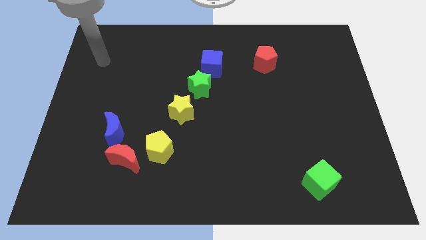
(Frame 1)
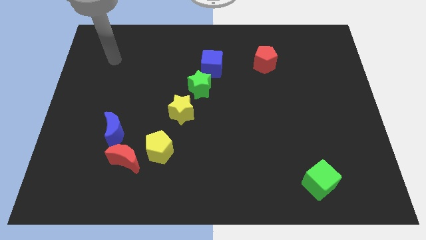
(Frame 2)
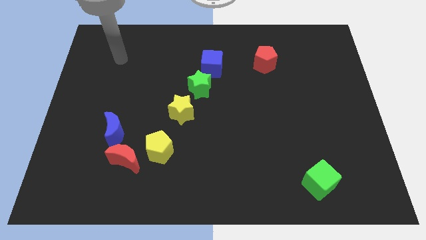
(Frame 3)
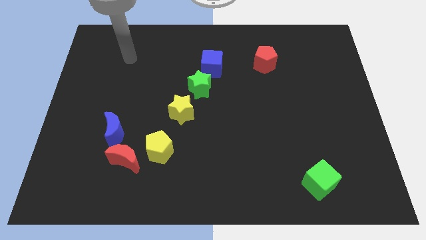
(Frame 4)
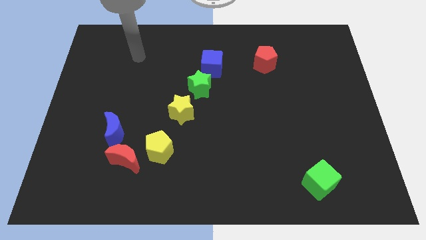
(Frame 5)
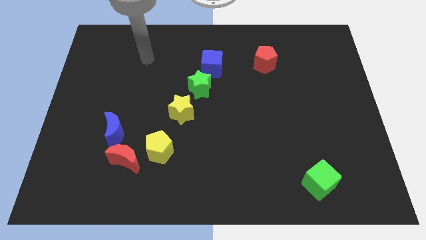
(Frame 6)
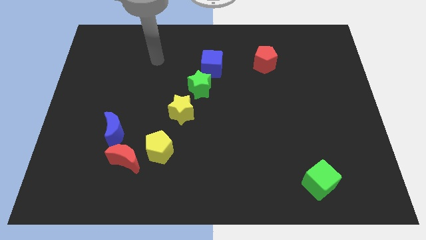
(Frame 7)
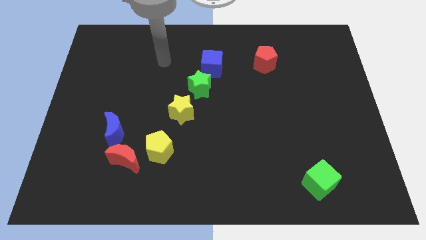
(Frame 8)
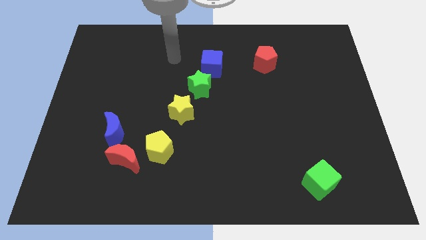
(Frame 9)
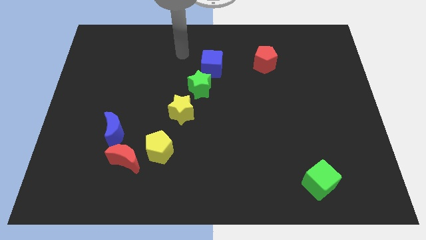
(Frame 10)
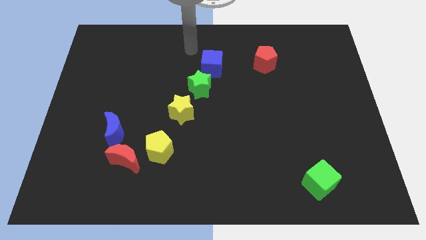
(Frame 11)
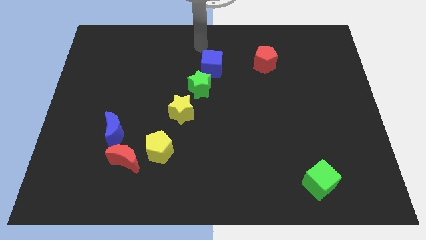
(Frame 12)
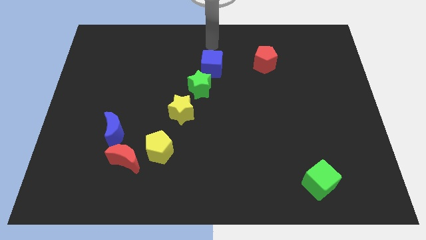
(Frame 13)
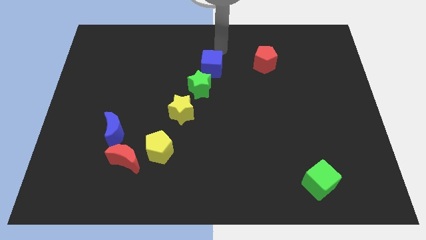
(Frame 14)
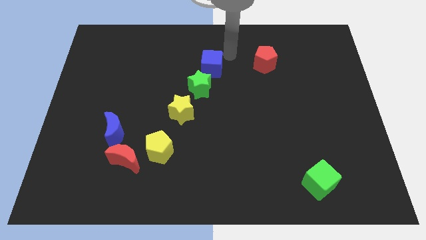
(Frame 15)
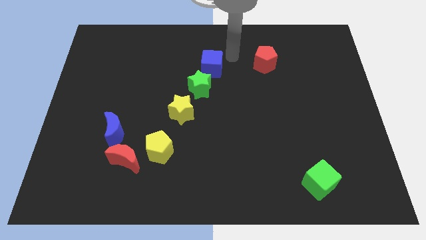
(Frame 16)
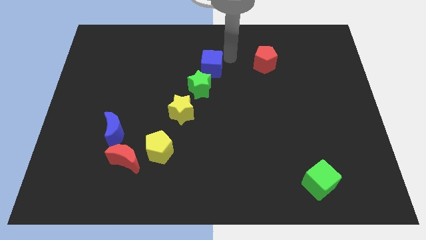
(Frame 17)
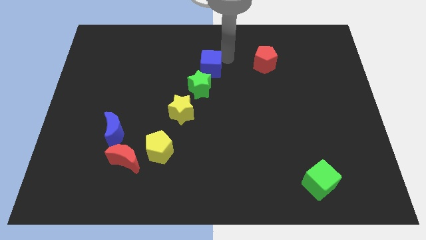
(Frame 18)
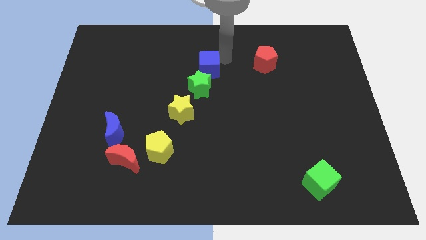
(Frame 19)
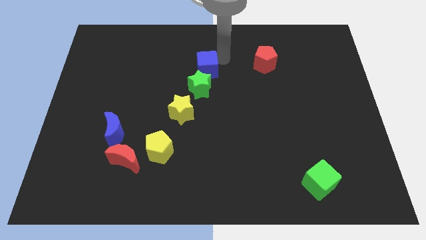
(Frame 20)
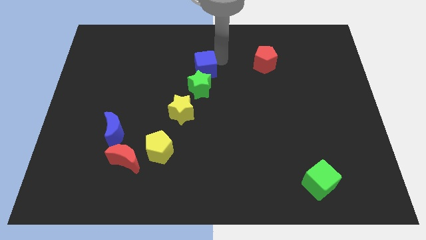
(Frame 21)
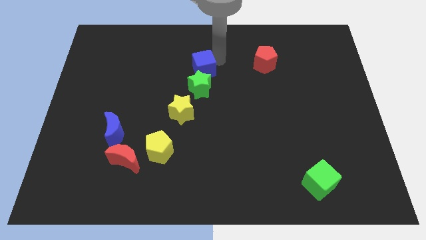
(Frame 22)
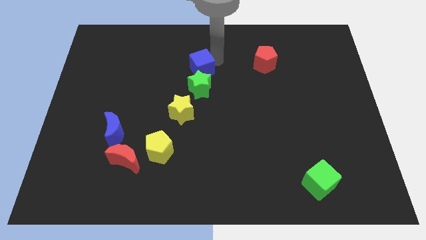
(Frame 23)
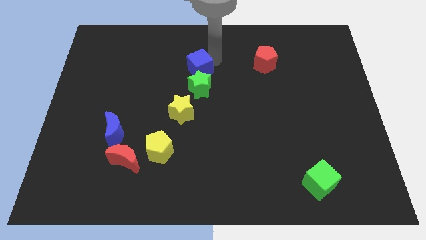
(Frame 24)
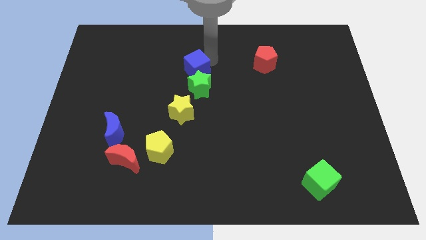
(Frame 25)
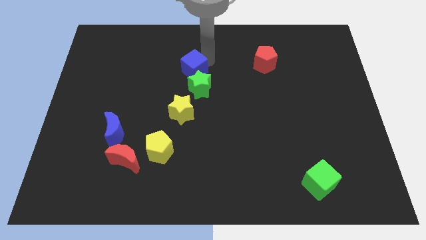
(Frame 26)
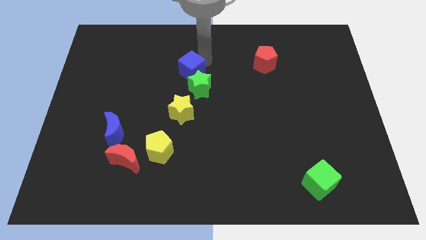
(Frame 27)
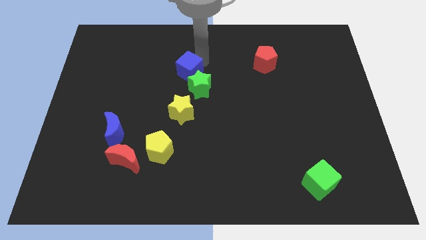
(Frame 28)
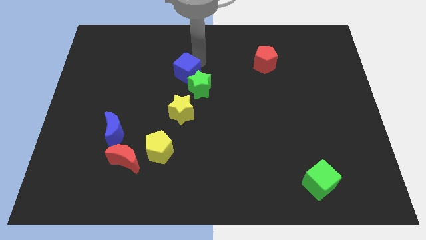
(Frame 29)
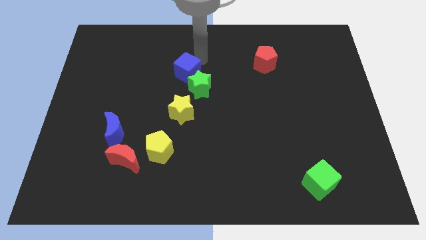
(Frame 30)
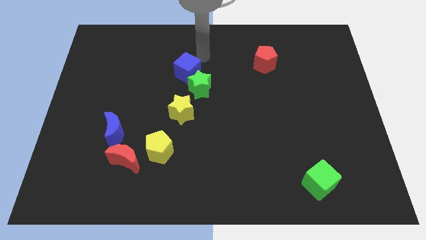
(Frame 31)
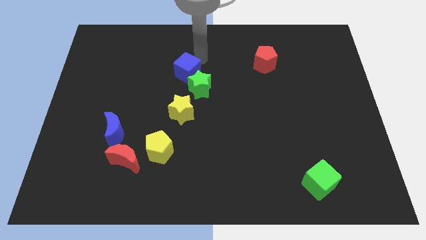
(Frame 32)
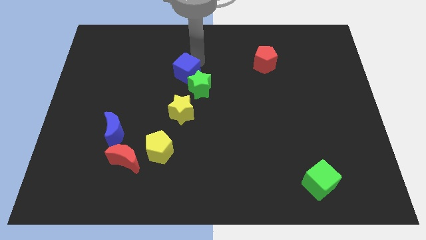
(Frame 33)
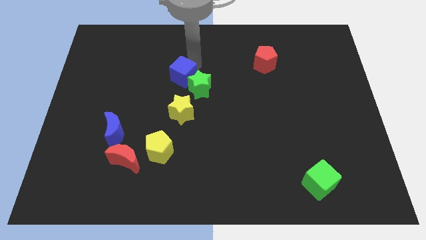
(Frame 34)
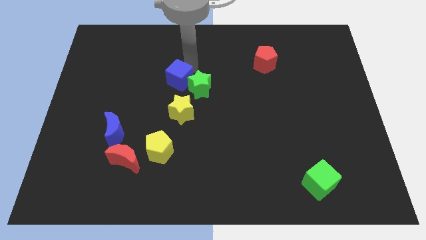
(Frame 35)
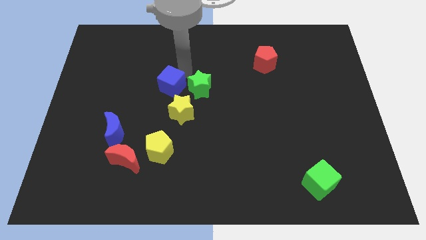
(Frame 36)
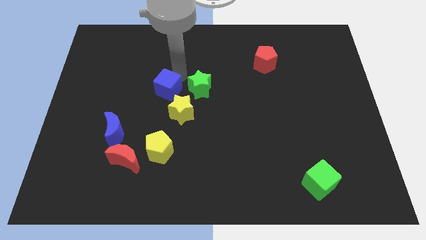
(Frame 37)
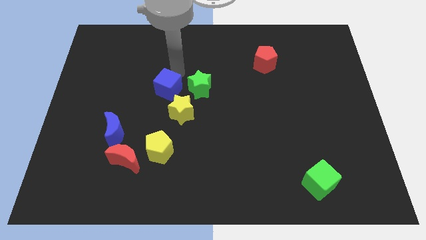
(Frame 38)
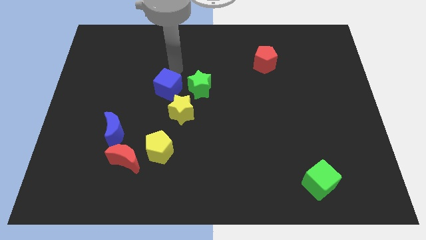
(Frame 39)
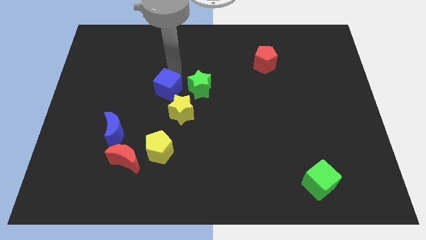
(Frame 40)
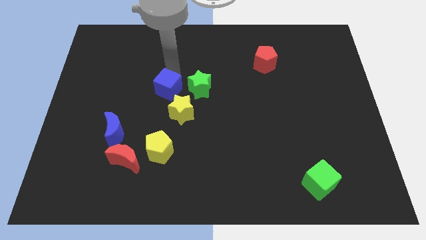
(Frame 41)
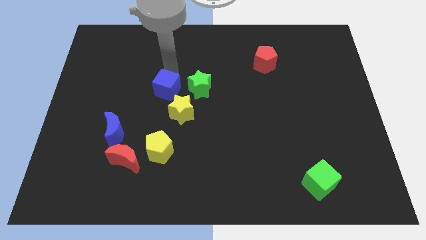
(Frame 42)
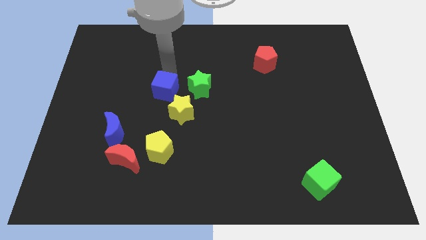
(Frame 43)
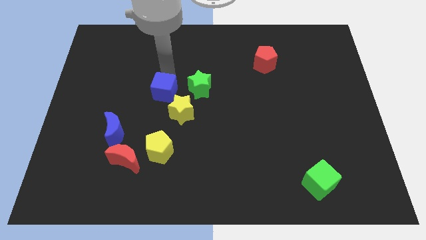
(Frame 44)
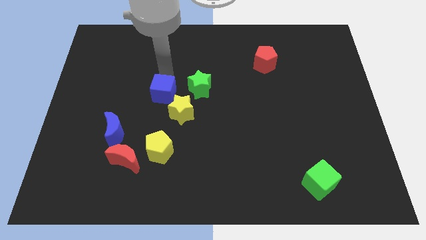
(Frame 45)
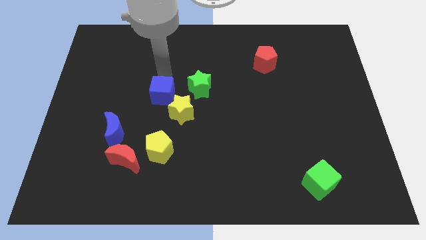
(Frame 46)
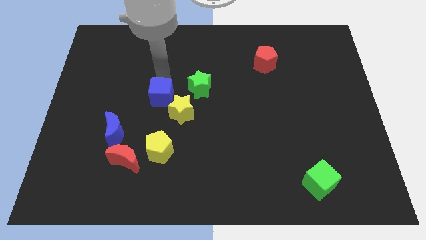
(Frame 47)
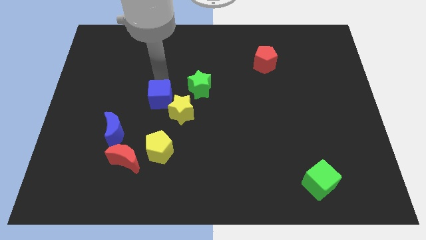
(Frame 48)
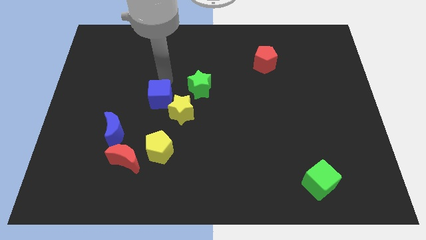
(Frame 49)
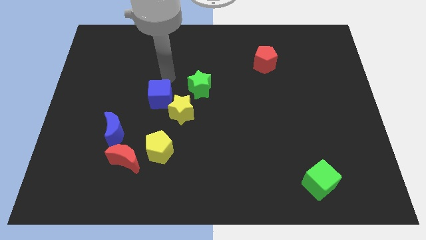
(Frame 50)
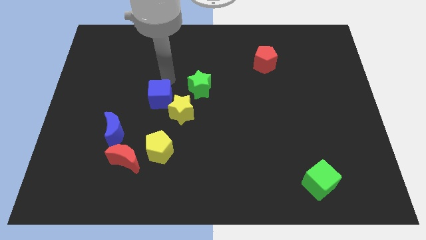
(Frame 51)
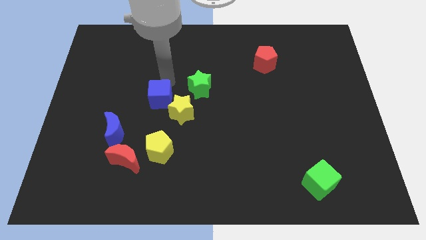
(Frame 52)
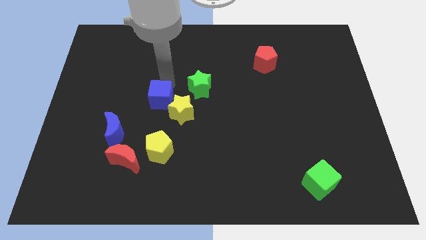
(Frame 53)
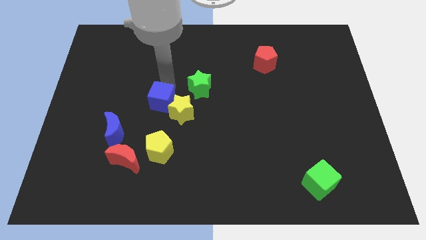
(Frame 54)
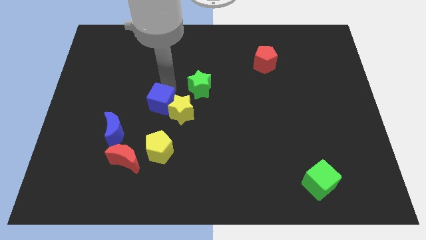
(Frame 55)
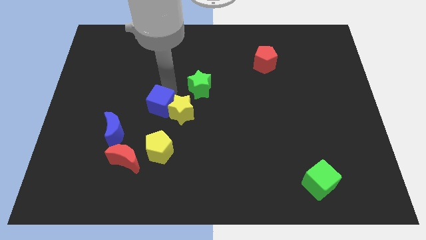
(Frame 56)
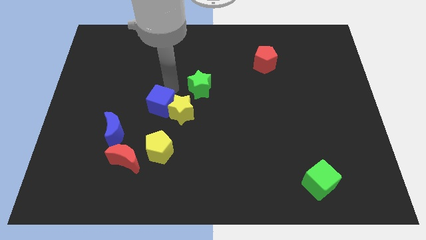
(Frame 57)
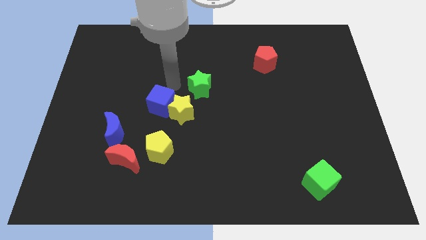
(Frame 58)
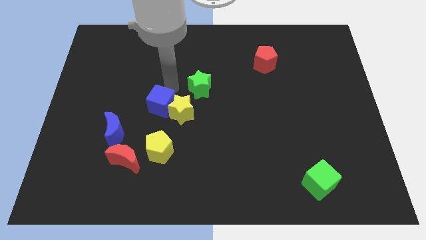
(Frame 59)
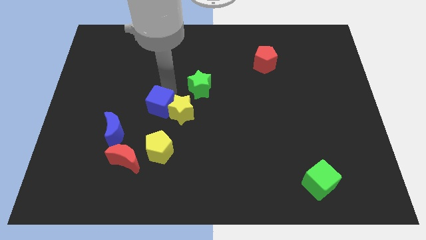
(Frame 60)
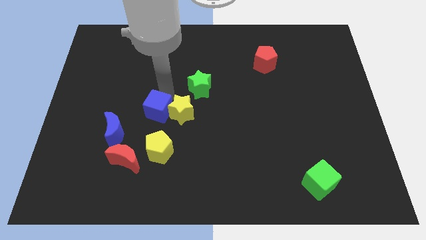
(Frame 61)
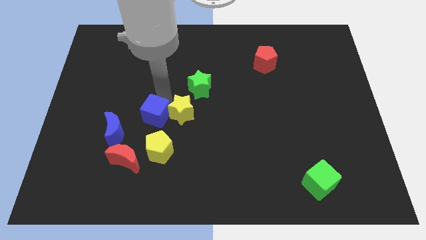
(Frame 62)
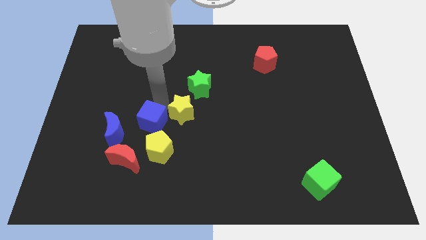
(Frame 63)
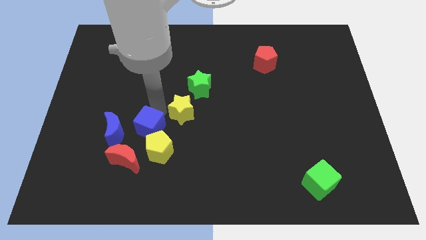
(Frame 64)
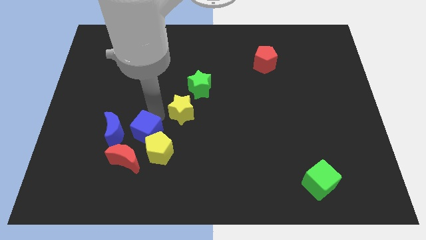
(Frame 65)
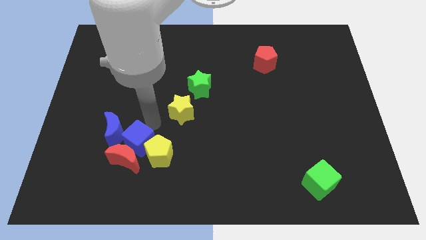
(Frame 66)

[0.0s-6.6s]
slide the blue cube close to the red moon

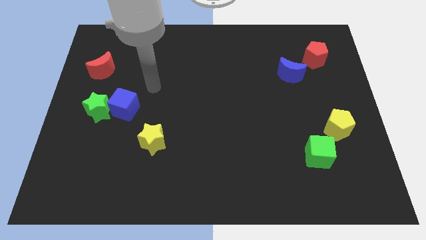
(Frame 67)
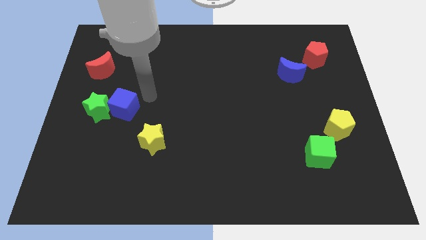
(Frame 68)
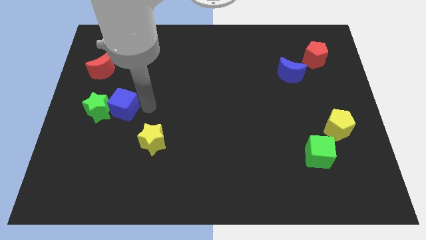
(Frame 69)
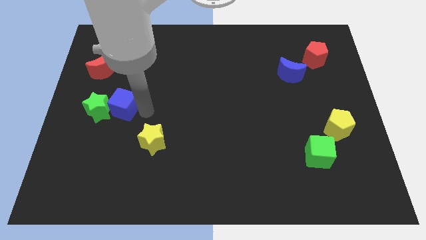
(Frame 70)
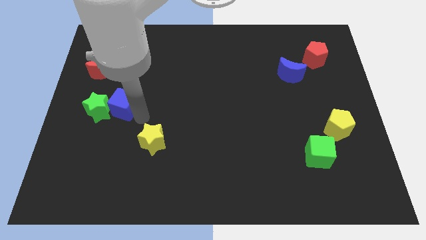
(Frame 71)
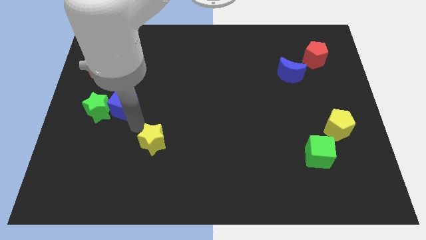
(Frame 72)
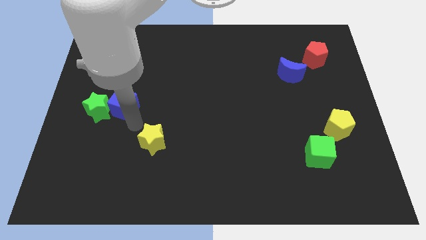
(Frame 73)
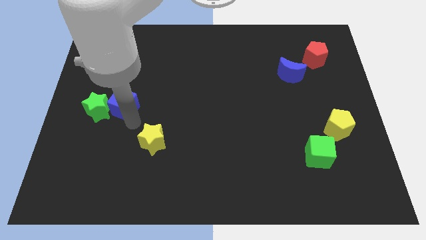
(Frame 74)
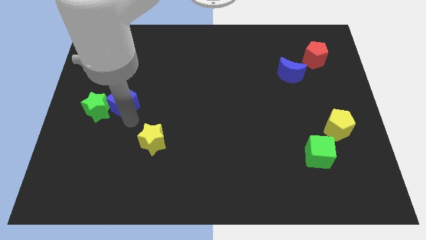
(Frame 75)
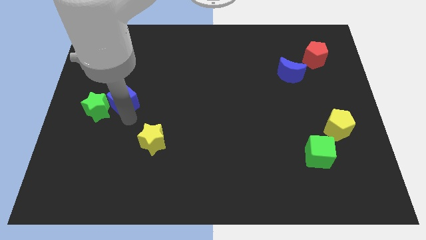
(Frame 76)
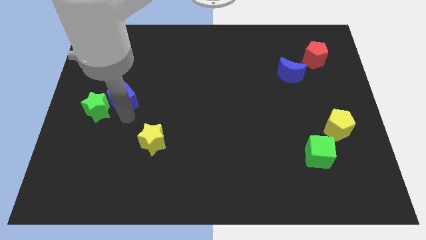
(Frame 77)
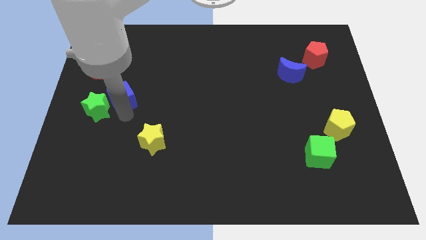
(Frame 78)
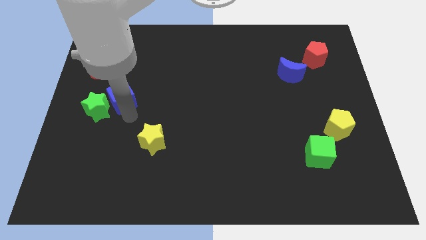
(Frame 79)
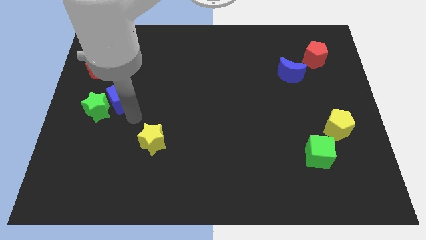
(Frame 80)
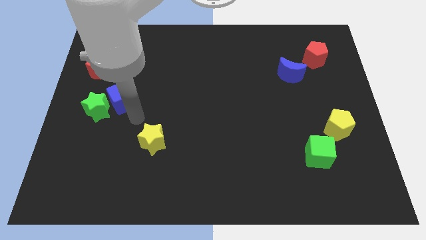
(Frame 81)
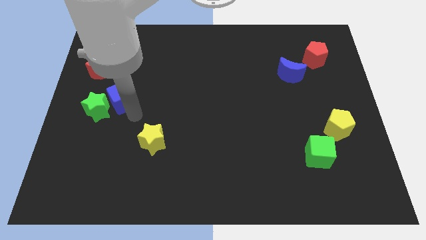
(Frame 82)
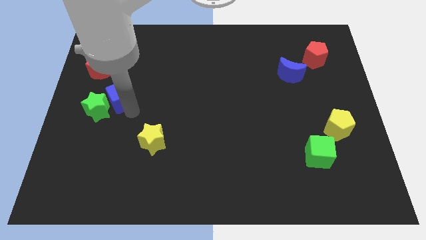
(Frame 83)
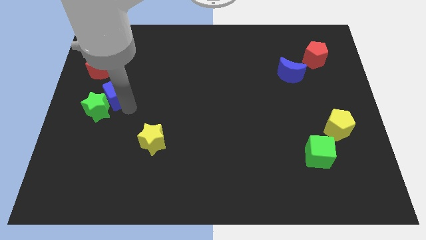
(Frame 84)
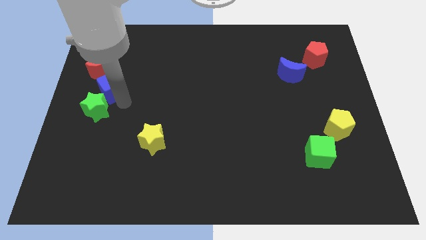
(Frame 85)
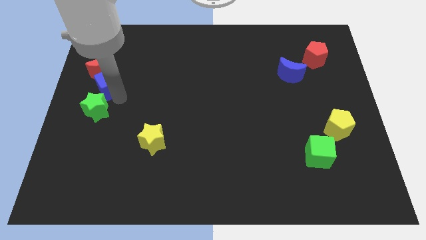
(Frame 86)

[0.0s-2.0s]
put the blue cube towards the red moon
